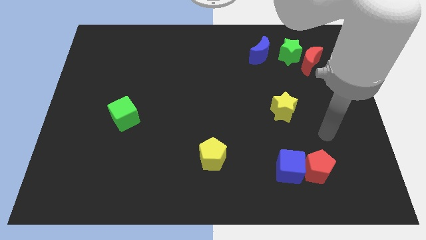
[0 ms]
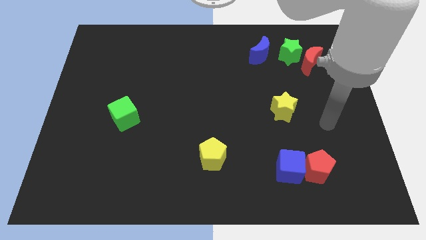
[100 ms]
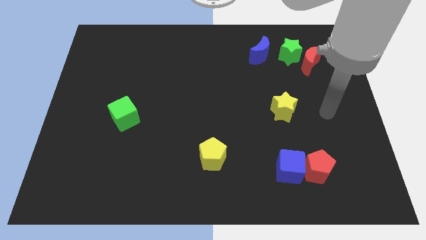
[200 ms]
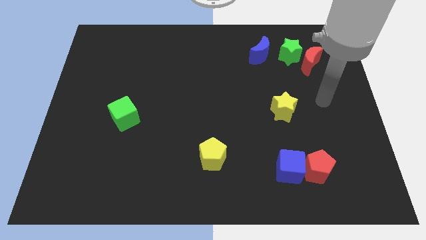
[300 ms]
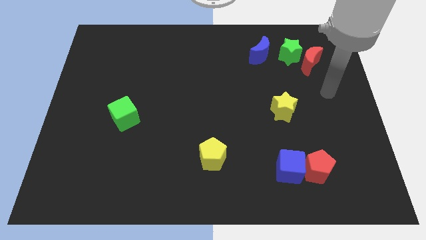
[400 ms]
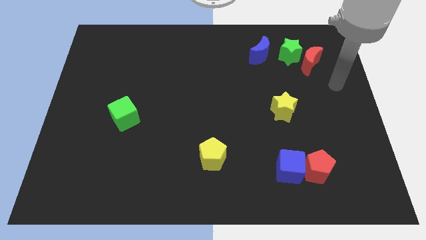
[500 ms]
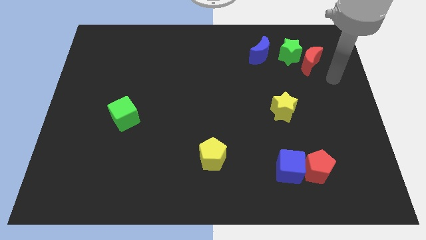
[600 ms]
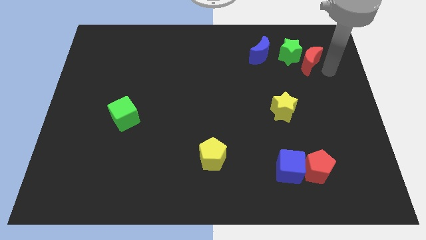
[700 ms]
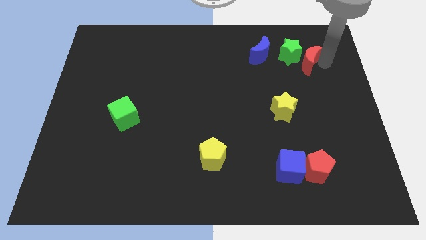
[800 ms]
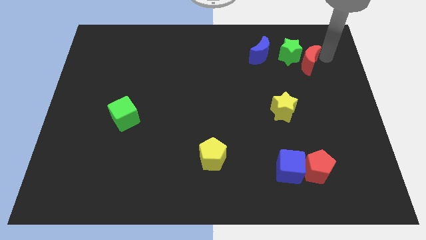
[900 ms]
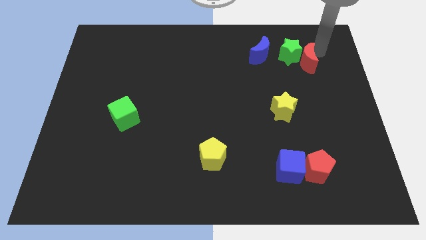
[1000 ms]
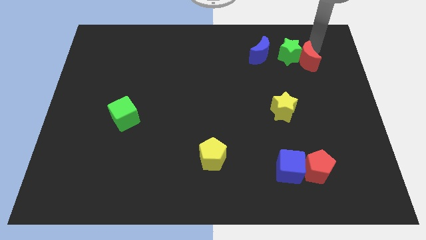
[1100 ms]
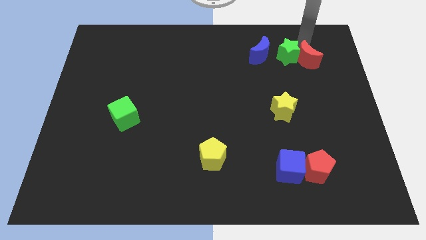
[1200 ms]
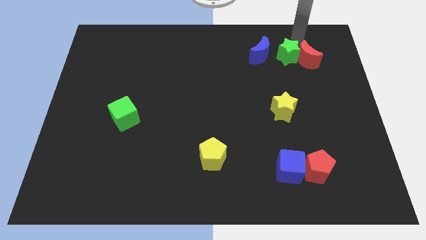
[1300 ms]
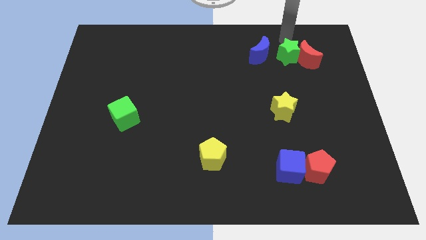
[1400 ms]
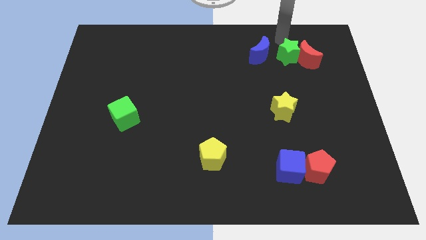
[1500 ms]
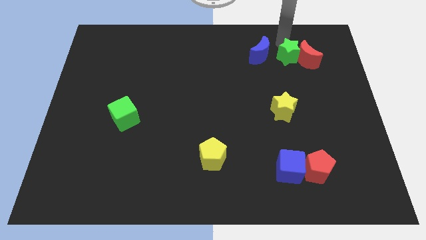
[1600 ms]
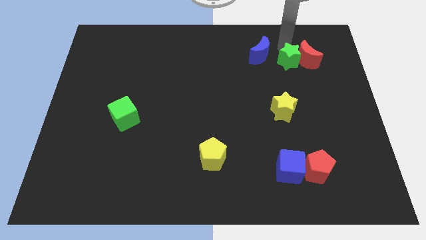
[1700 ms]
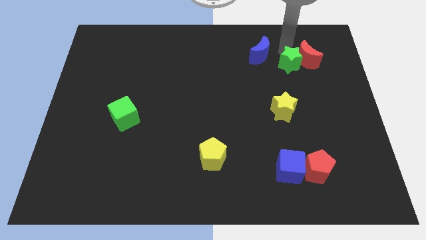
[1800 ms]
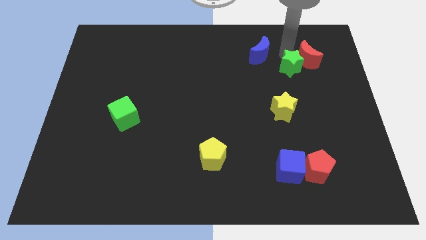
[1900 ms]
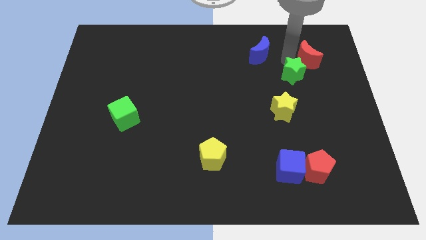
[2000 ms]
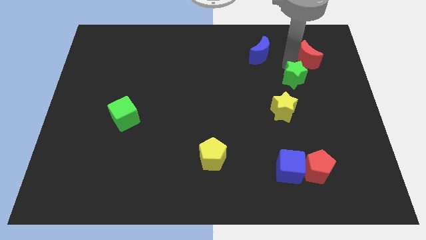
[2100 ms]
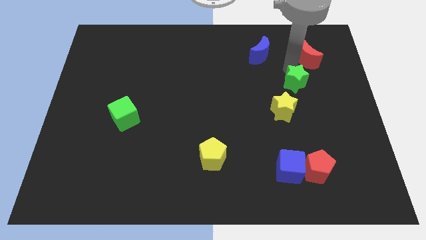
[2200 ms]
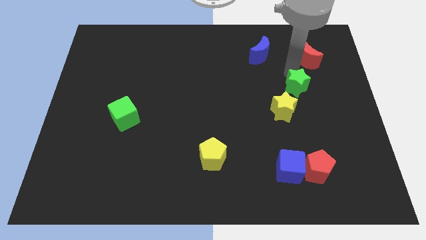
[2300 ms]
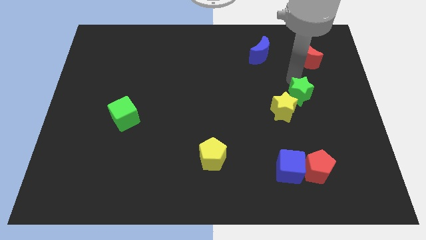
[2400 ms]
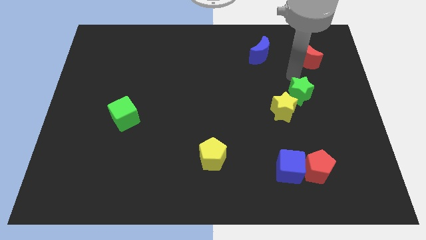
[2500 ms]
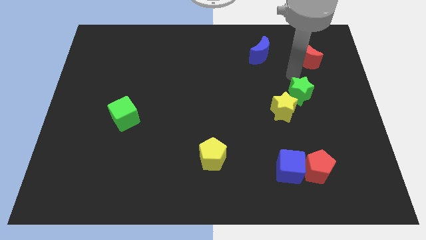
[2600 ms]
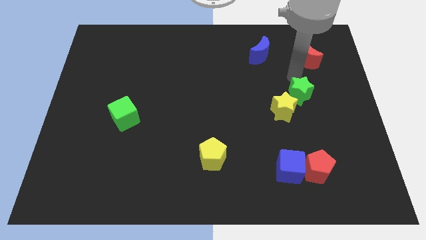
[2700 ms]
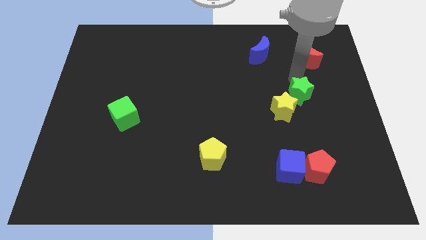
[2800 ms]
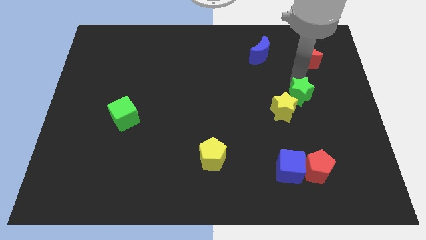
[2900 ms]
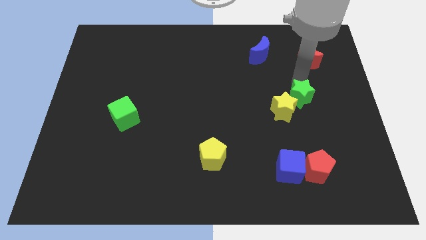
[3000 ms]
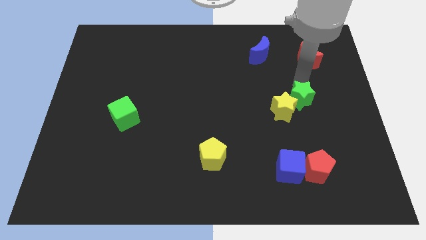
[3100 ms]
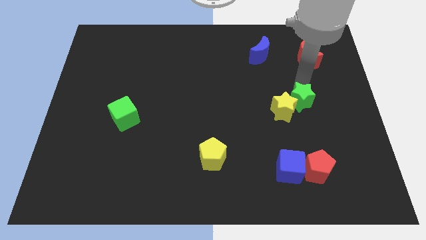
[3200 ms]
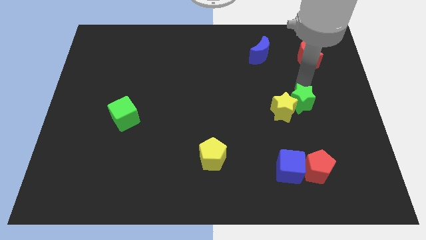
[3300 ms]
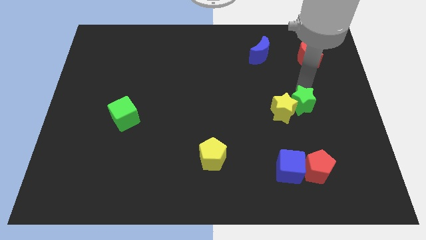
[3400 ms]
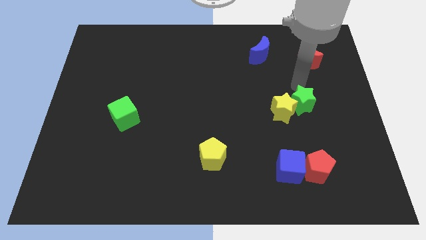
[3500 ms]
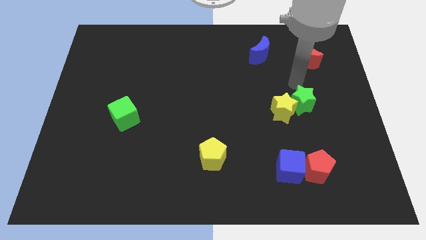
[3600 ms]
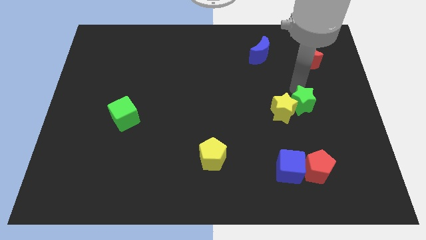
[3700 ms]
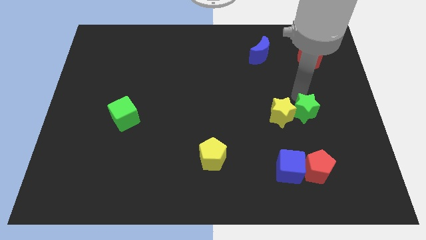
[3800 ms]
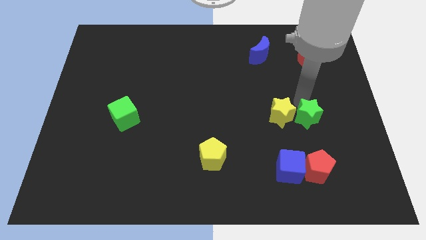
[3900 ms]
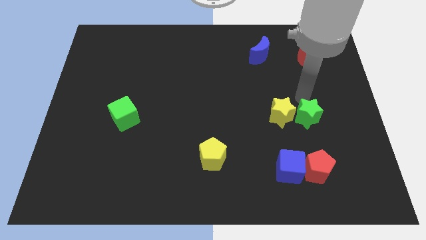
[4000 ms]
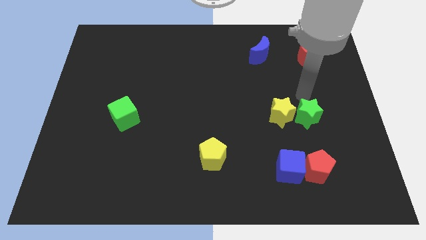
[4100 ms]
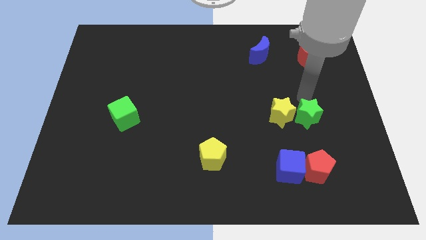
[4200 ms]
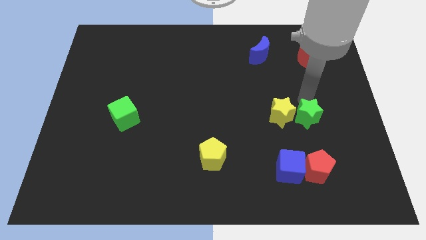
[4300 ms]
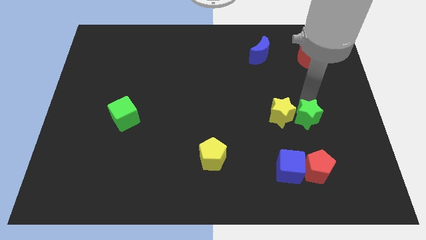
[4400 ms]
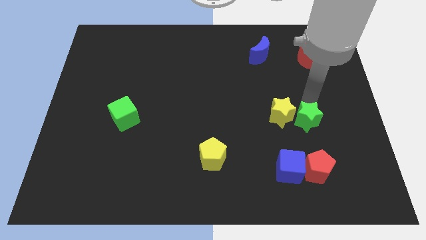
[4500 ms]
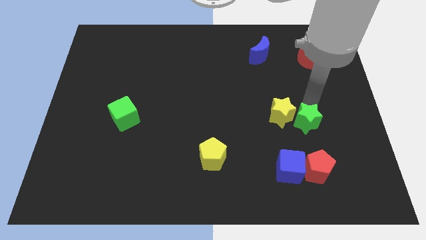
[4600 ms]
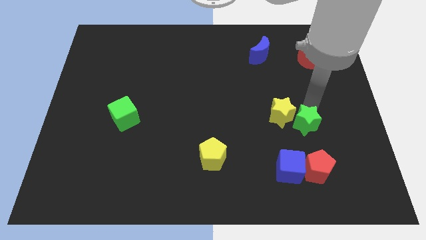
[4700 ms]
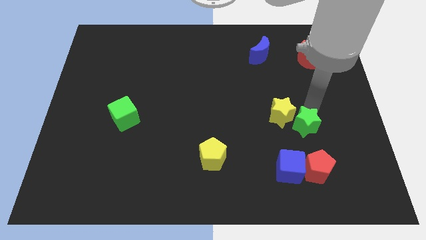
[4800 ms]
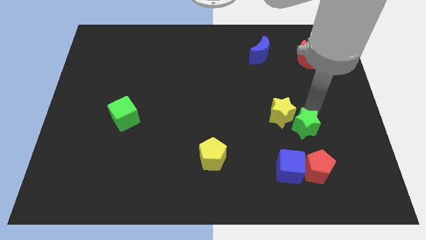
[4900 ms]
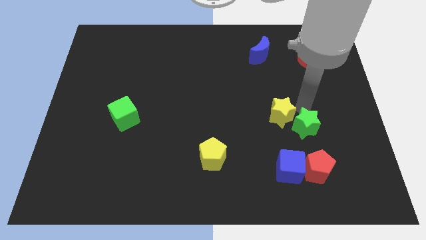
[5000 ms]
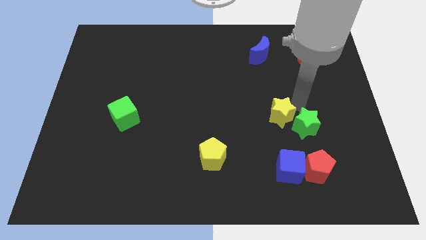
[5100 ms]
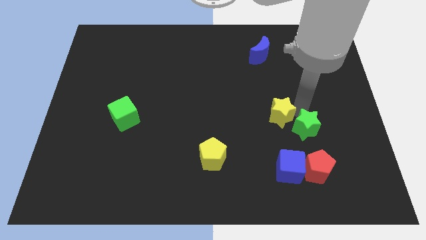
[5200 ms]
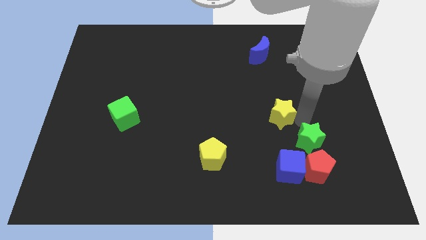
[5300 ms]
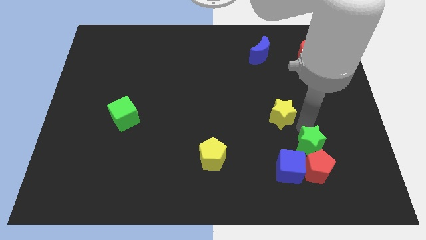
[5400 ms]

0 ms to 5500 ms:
slide the green star close to the red pentagon

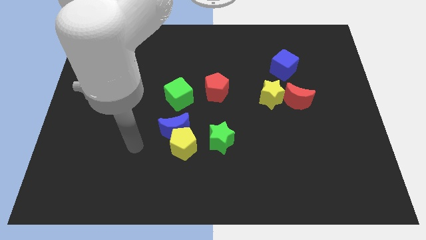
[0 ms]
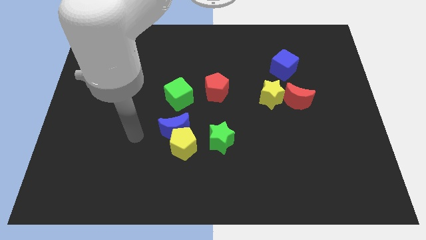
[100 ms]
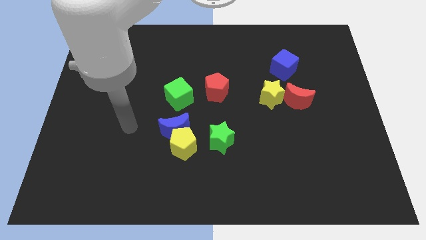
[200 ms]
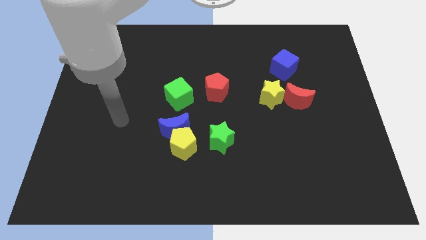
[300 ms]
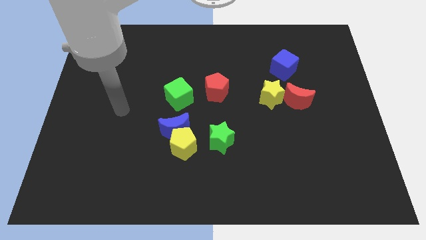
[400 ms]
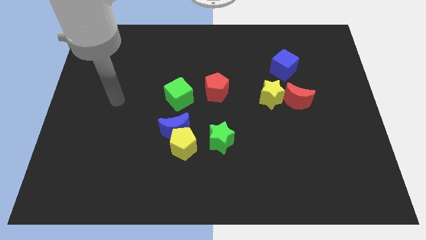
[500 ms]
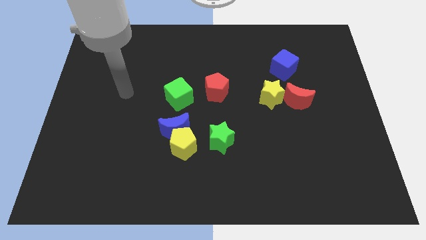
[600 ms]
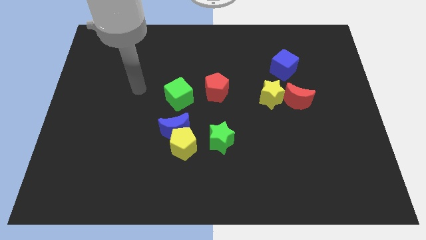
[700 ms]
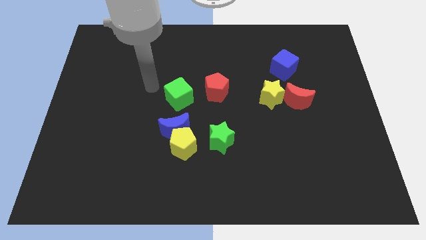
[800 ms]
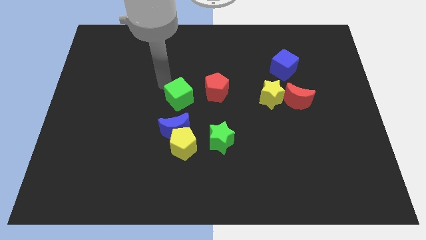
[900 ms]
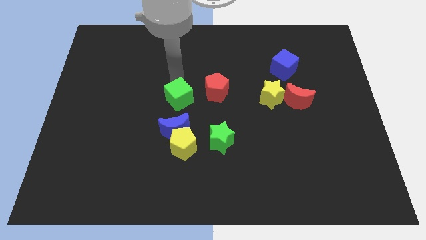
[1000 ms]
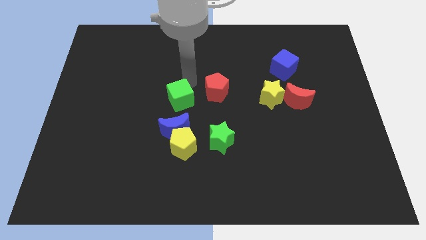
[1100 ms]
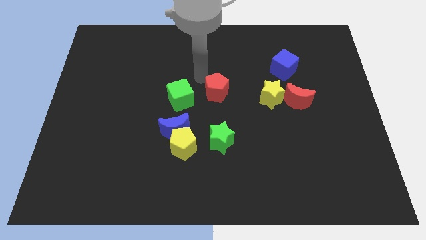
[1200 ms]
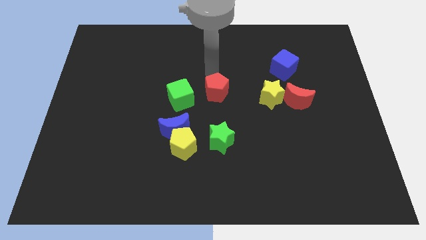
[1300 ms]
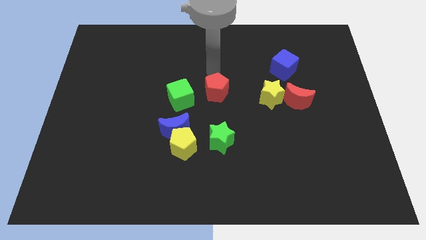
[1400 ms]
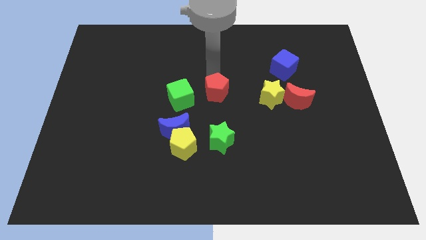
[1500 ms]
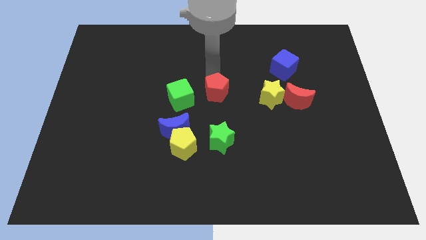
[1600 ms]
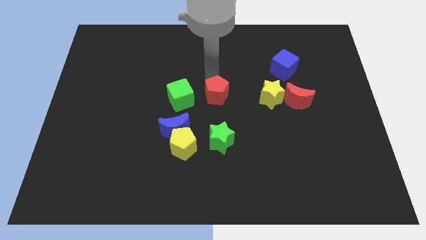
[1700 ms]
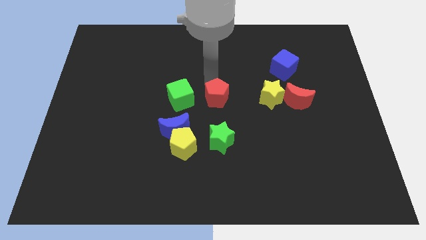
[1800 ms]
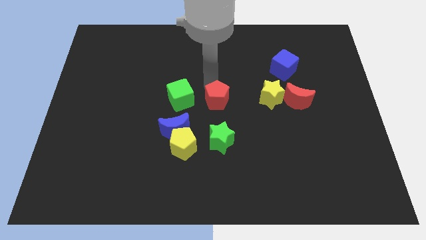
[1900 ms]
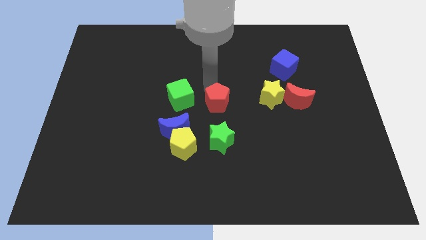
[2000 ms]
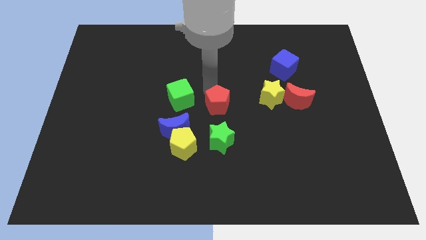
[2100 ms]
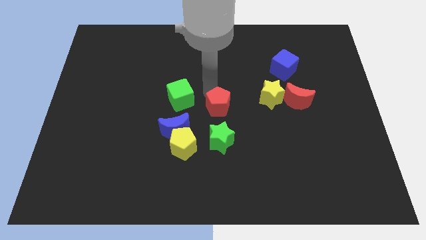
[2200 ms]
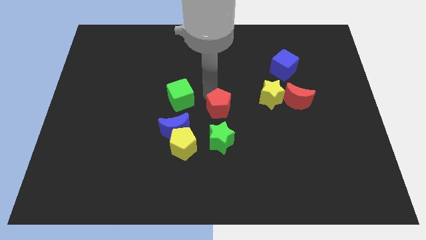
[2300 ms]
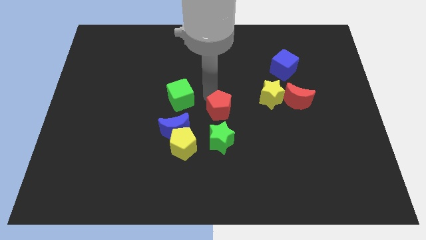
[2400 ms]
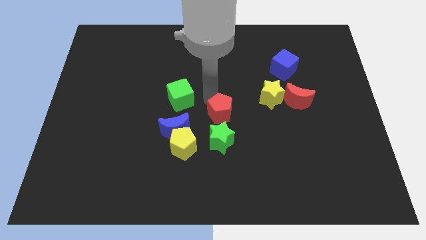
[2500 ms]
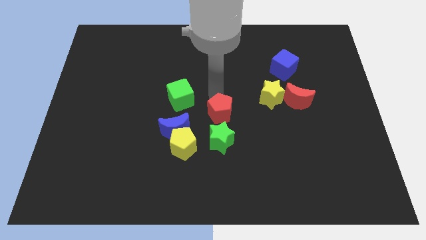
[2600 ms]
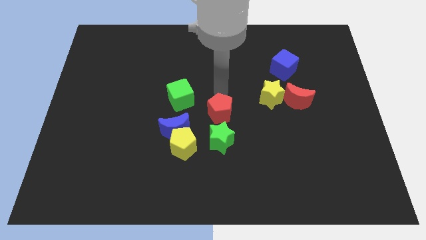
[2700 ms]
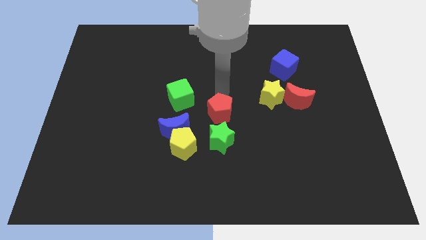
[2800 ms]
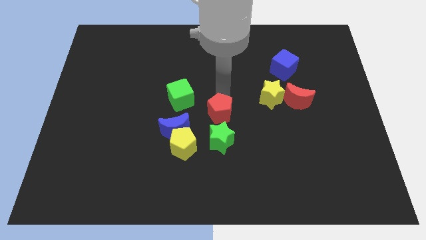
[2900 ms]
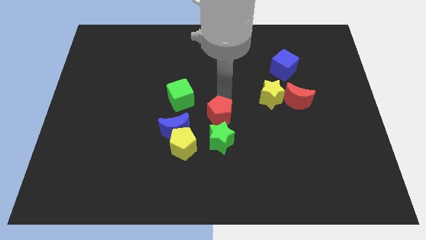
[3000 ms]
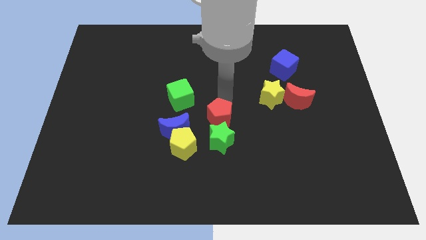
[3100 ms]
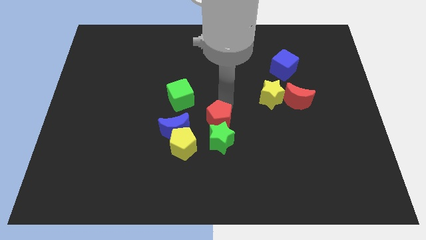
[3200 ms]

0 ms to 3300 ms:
slide the red pentagon close to the green star
